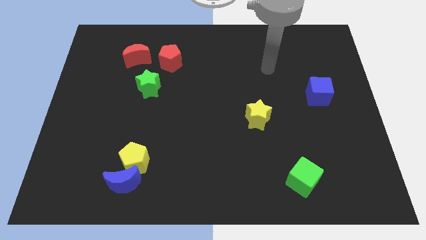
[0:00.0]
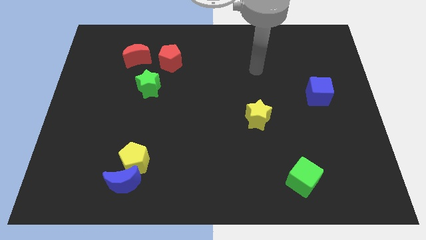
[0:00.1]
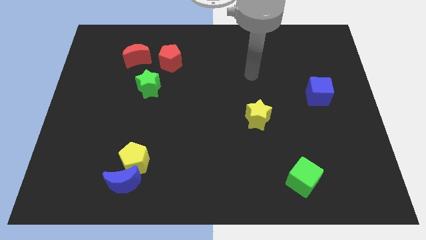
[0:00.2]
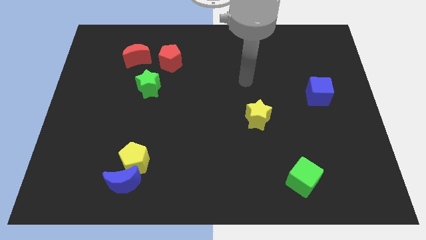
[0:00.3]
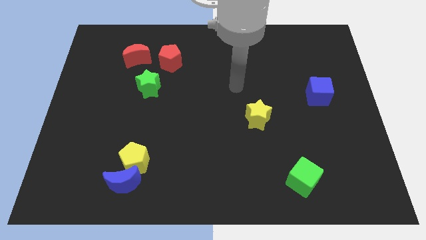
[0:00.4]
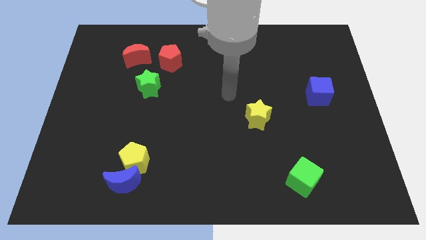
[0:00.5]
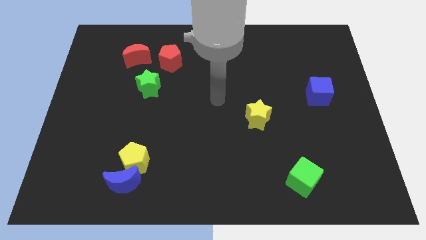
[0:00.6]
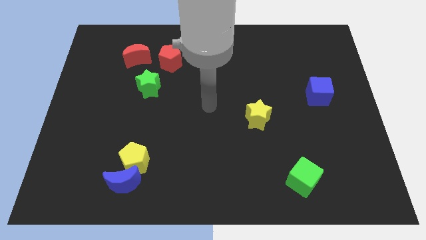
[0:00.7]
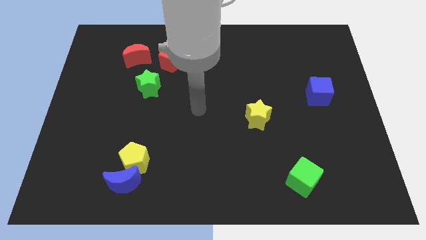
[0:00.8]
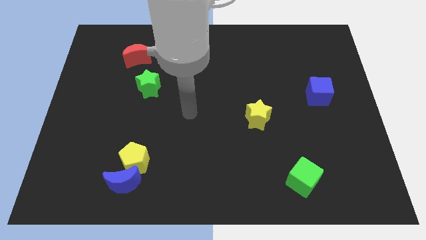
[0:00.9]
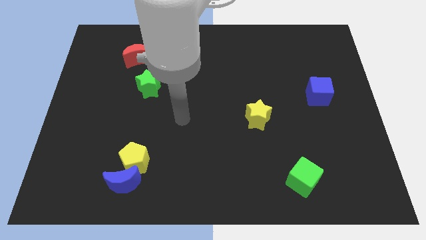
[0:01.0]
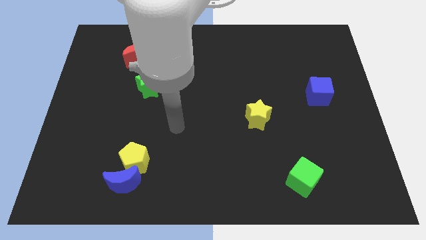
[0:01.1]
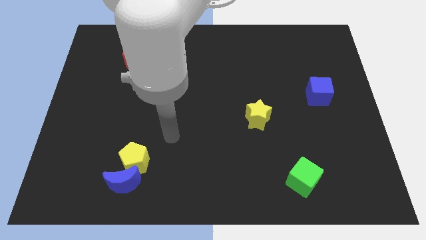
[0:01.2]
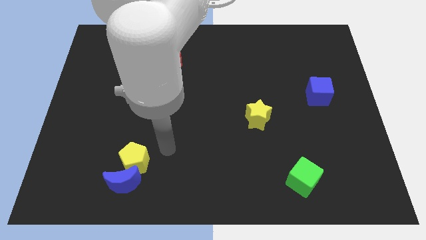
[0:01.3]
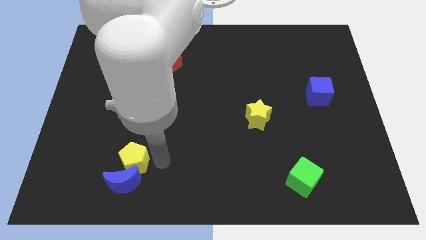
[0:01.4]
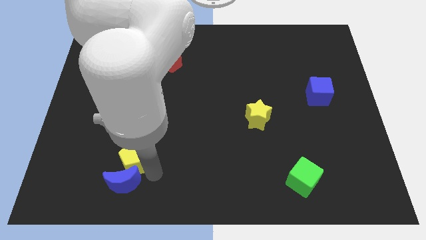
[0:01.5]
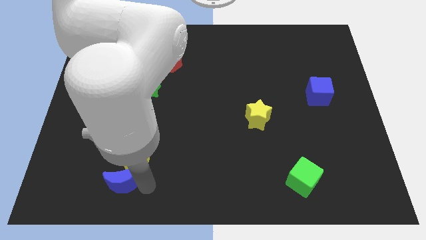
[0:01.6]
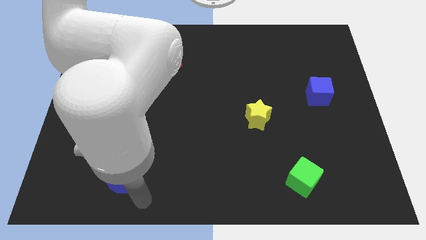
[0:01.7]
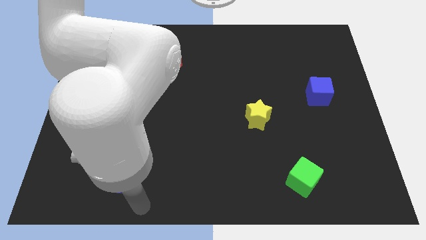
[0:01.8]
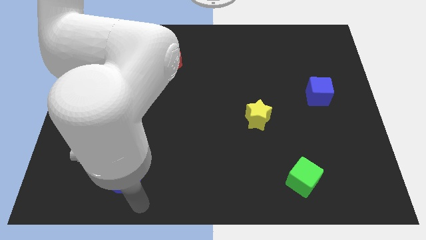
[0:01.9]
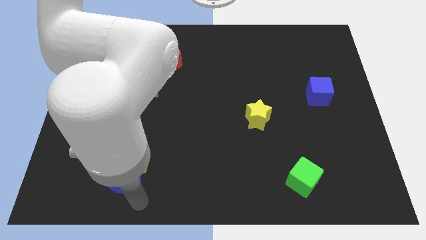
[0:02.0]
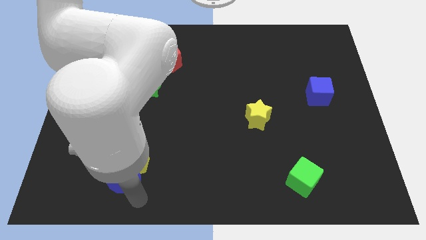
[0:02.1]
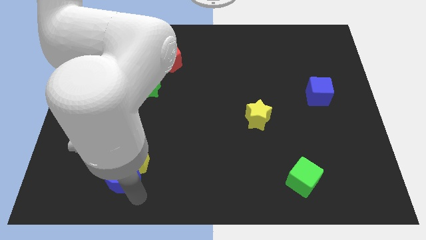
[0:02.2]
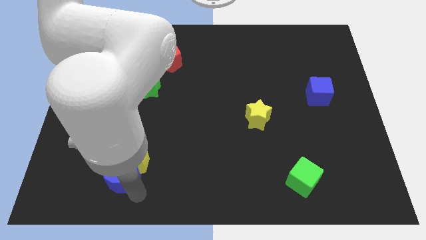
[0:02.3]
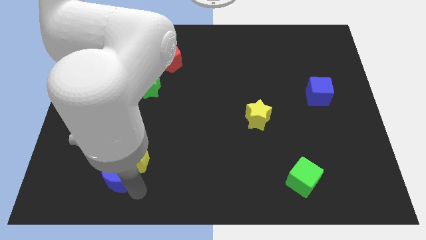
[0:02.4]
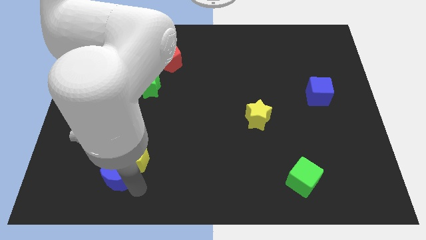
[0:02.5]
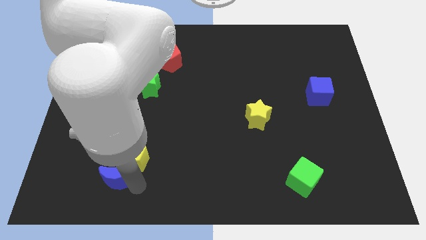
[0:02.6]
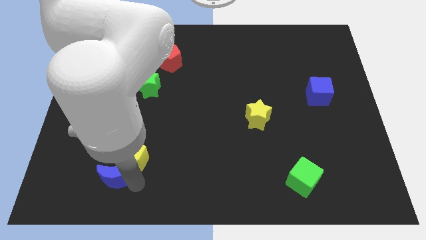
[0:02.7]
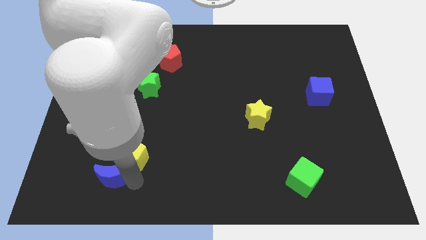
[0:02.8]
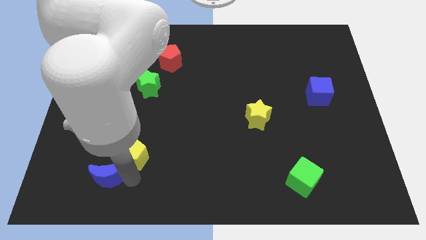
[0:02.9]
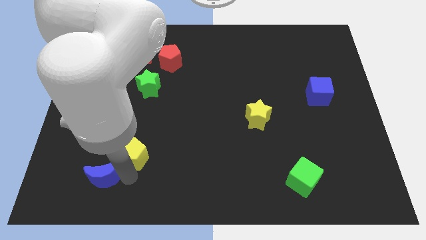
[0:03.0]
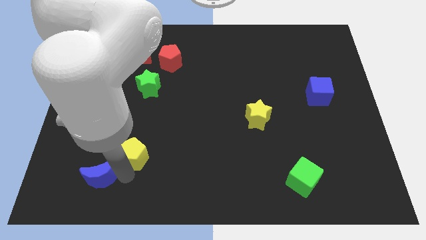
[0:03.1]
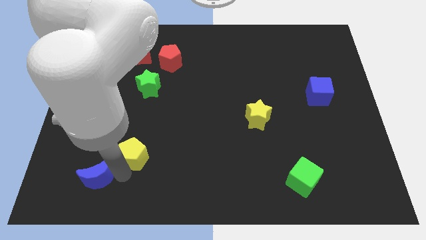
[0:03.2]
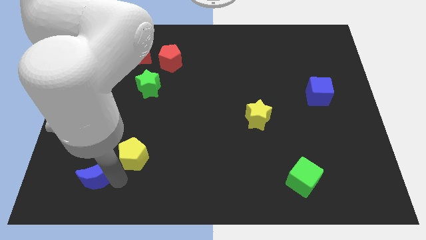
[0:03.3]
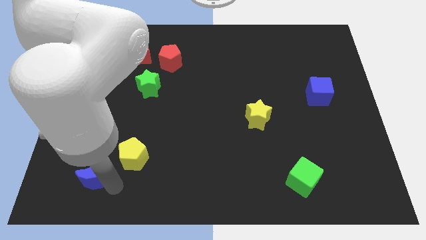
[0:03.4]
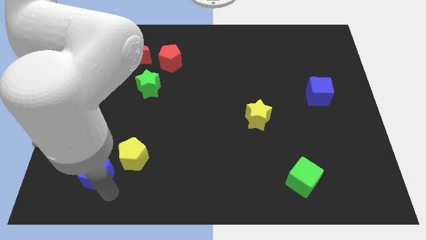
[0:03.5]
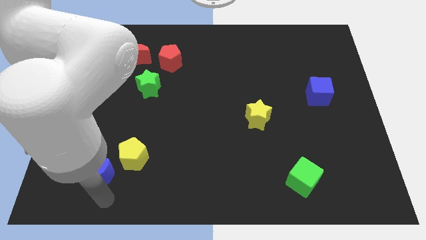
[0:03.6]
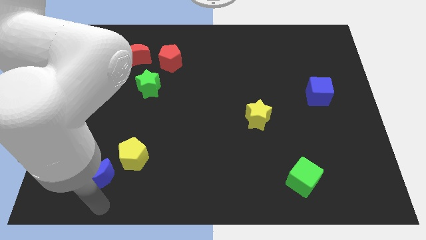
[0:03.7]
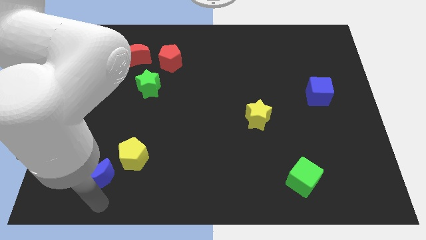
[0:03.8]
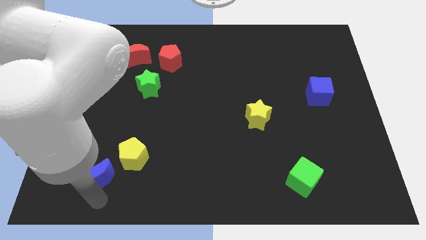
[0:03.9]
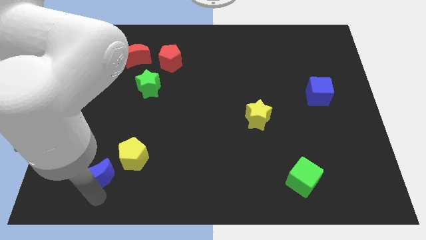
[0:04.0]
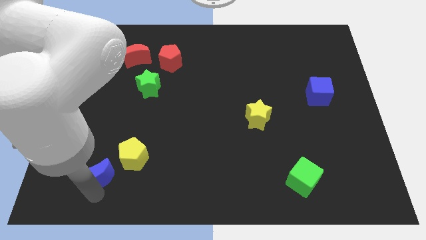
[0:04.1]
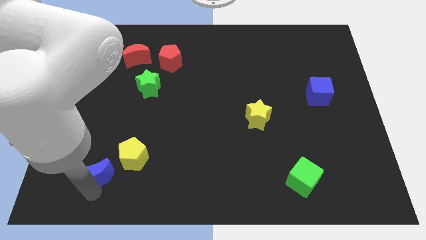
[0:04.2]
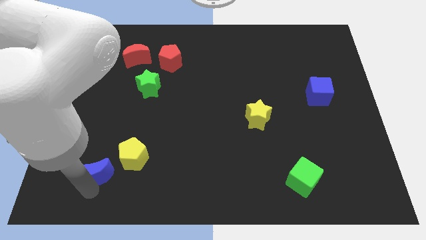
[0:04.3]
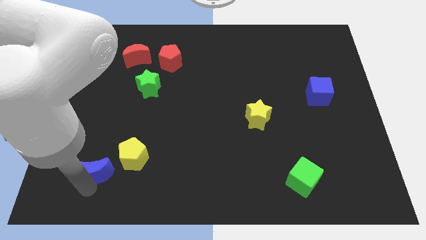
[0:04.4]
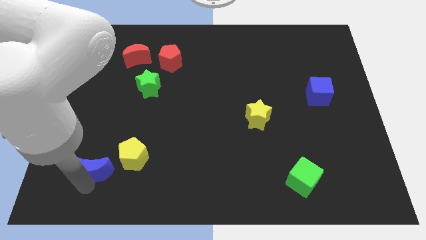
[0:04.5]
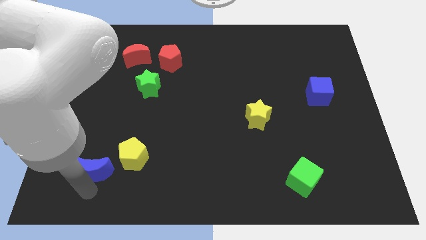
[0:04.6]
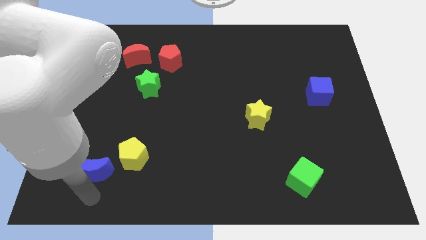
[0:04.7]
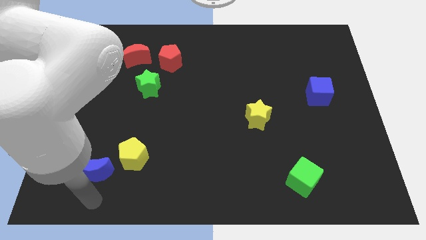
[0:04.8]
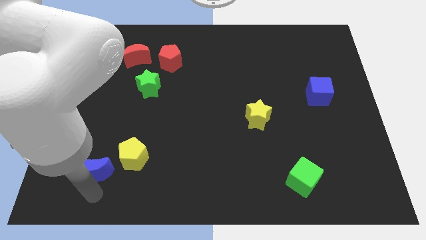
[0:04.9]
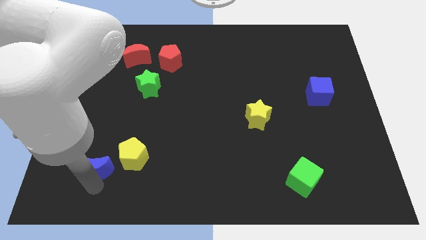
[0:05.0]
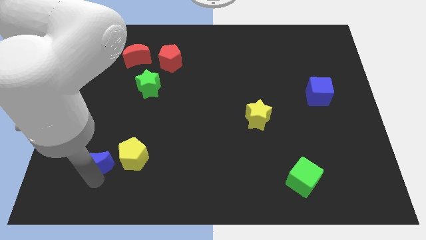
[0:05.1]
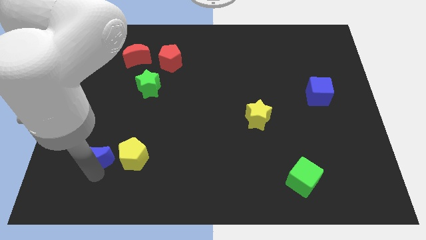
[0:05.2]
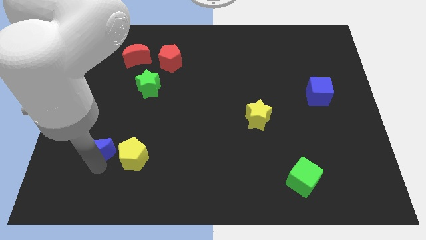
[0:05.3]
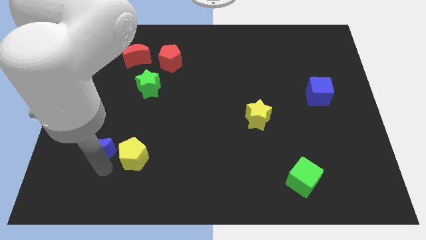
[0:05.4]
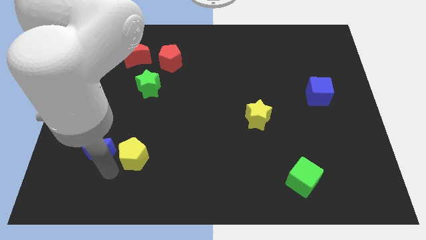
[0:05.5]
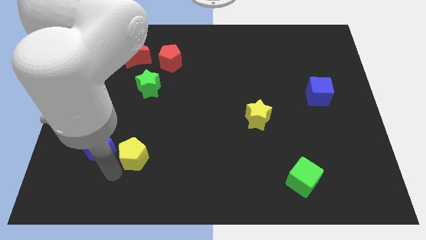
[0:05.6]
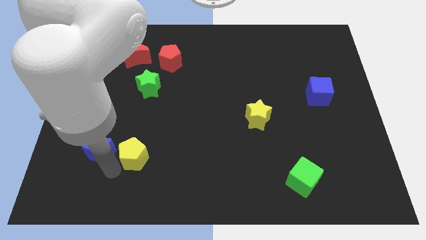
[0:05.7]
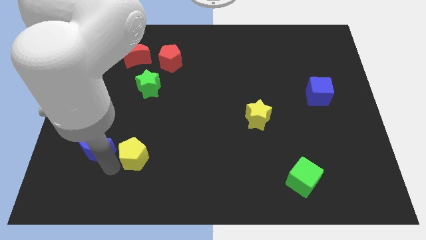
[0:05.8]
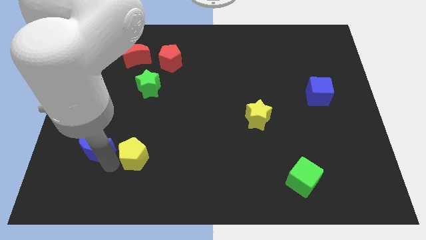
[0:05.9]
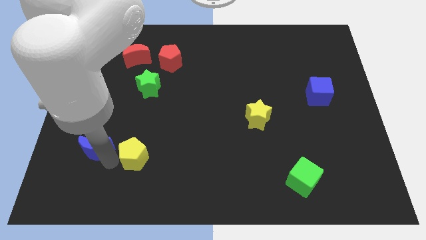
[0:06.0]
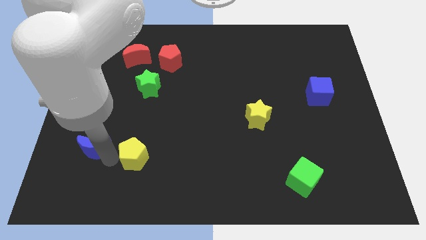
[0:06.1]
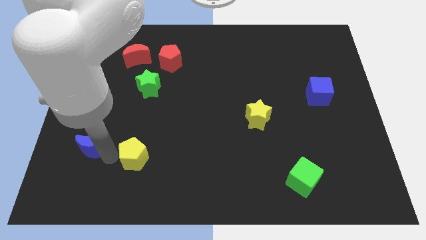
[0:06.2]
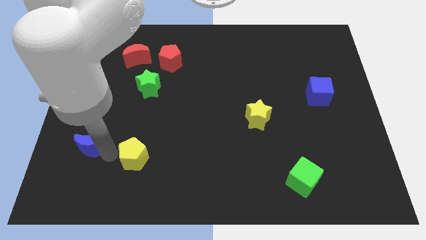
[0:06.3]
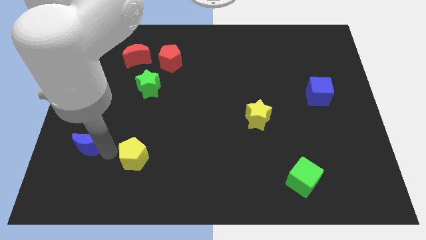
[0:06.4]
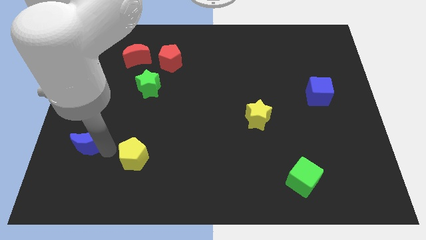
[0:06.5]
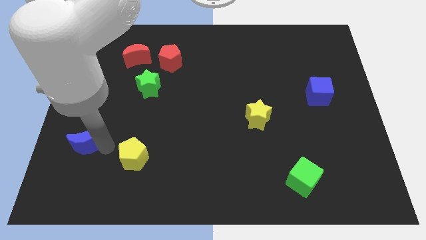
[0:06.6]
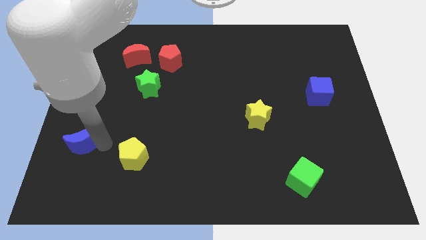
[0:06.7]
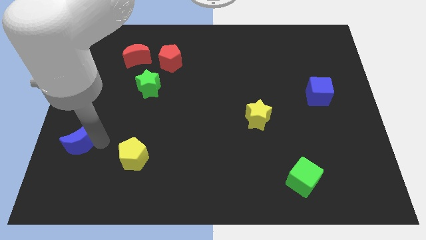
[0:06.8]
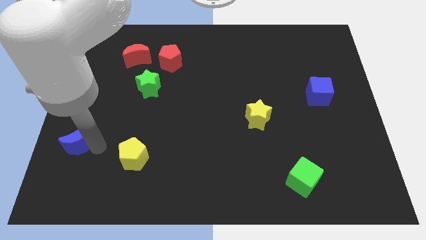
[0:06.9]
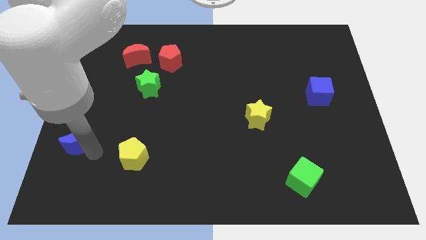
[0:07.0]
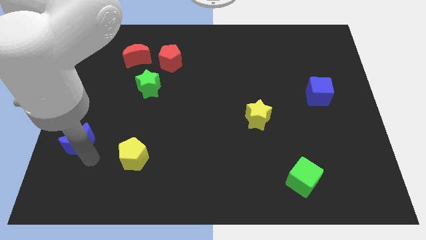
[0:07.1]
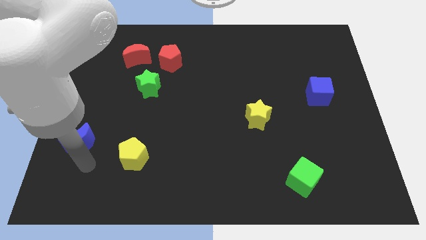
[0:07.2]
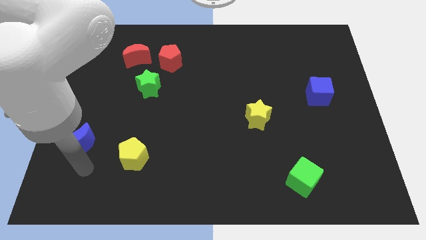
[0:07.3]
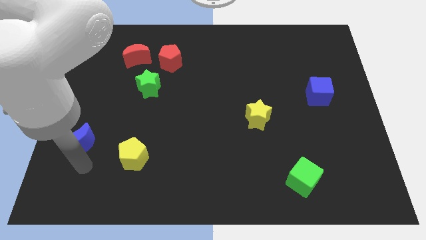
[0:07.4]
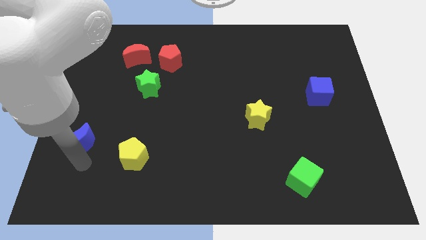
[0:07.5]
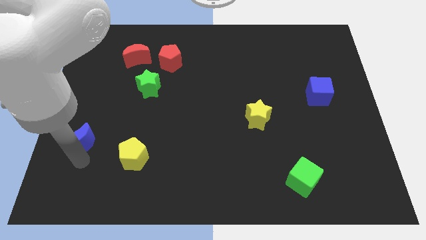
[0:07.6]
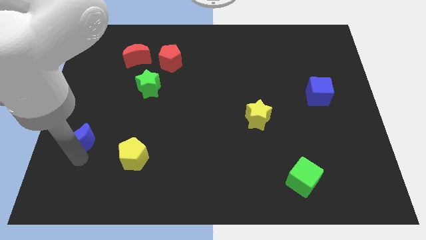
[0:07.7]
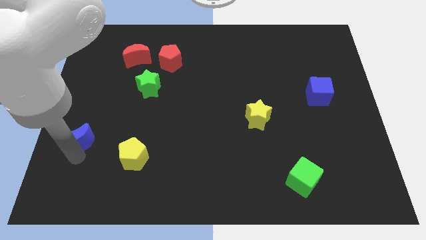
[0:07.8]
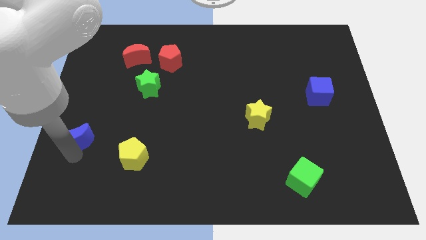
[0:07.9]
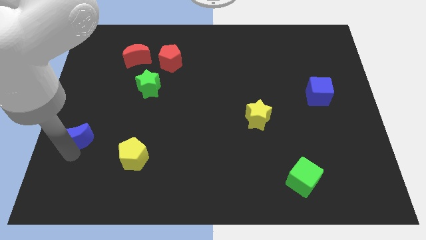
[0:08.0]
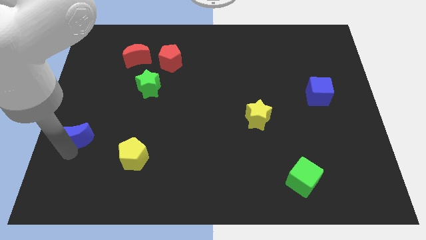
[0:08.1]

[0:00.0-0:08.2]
push the blue moon to the center left
